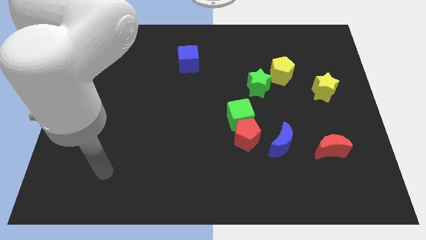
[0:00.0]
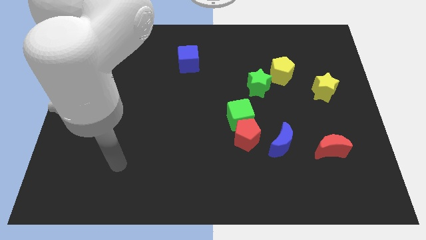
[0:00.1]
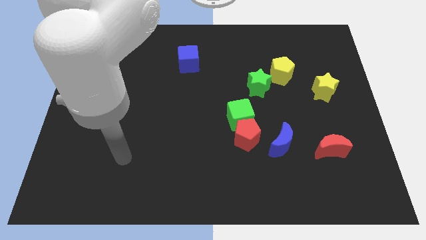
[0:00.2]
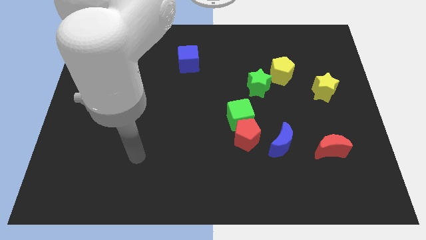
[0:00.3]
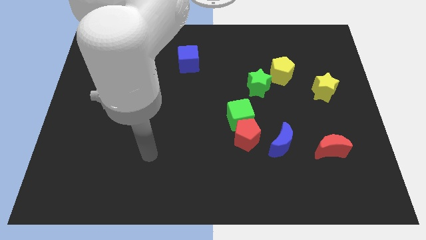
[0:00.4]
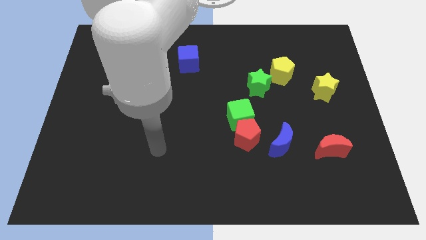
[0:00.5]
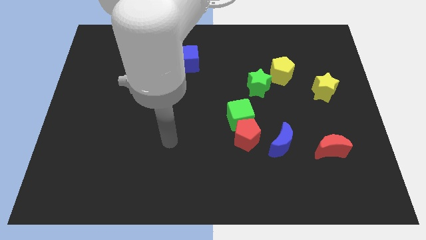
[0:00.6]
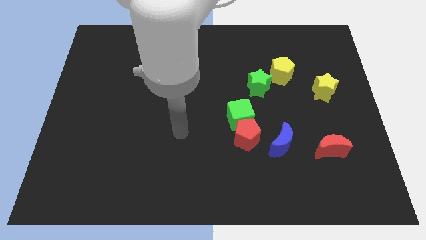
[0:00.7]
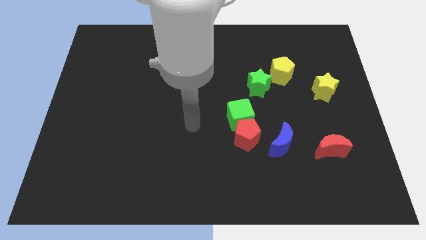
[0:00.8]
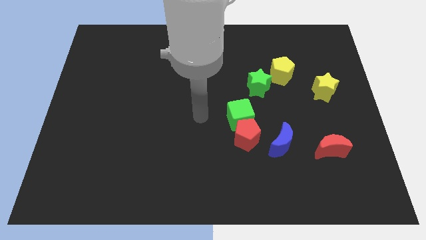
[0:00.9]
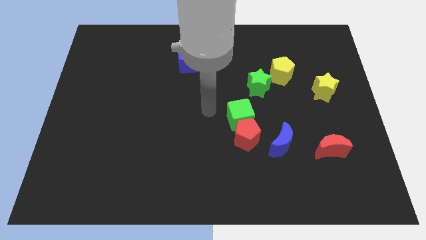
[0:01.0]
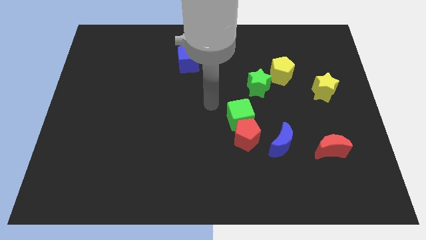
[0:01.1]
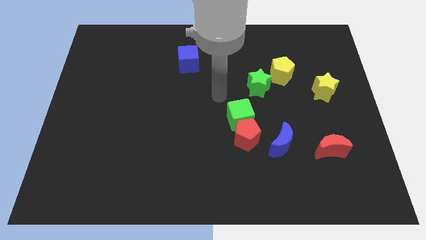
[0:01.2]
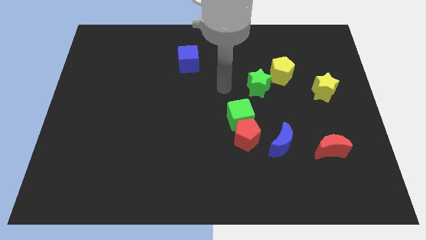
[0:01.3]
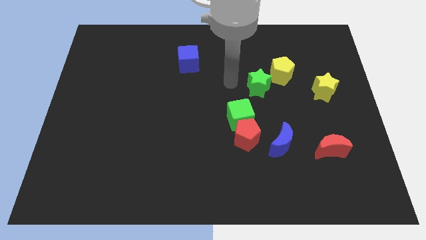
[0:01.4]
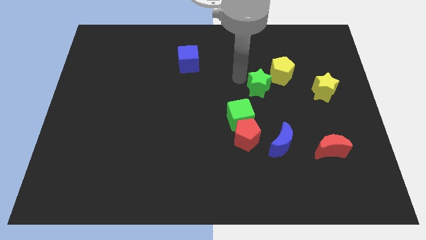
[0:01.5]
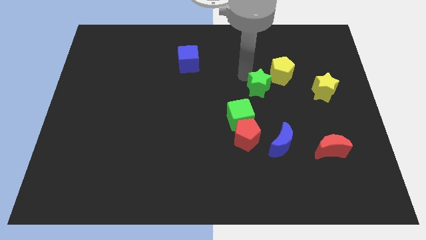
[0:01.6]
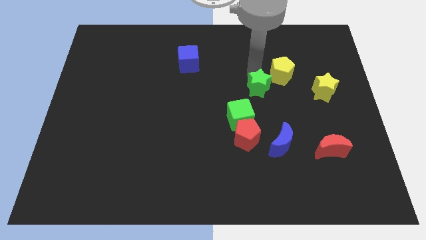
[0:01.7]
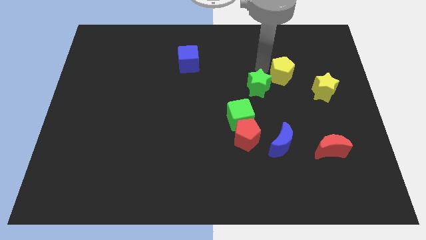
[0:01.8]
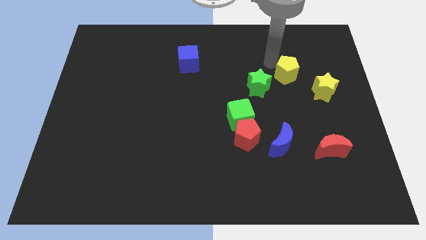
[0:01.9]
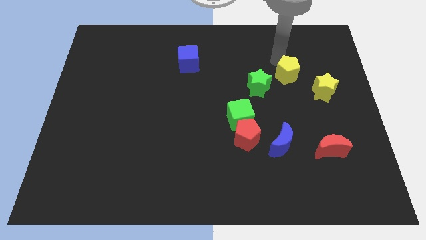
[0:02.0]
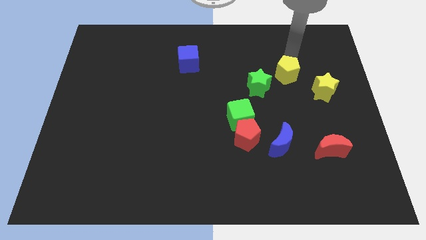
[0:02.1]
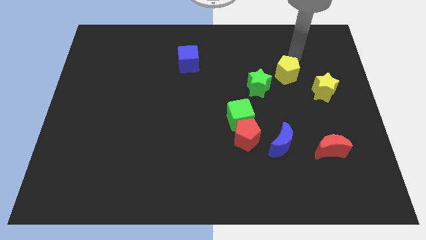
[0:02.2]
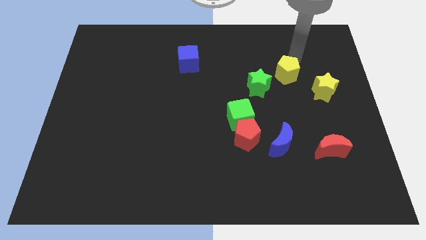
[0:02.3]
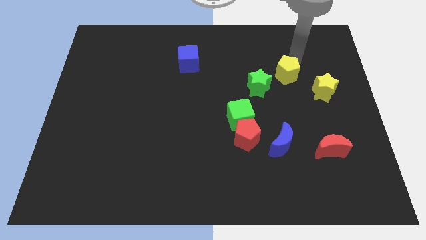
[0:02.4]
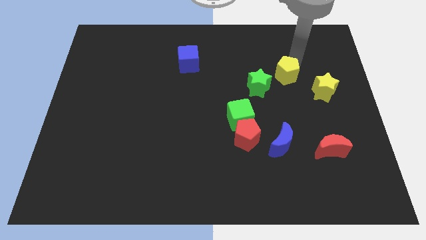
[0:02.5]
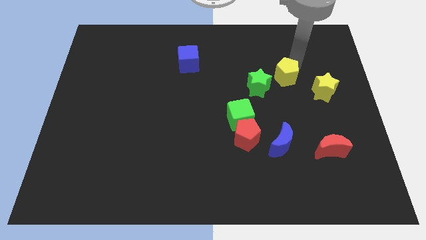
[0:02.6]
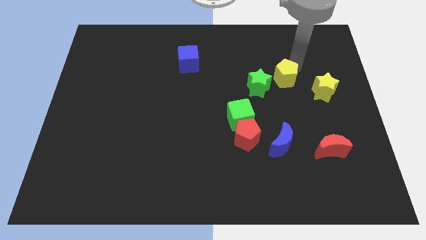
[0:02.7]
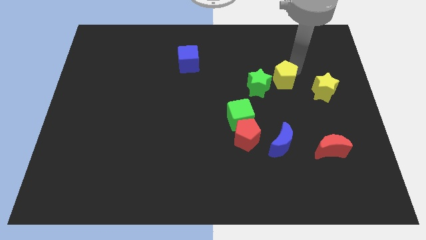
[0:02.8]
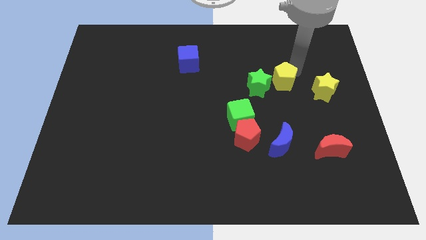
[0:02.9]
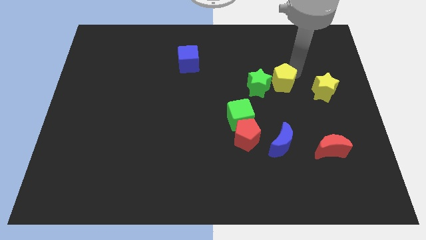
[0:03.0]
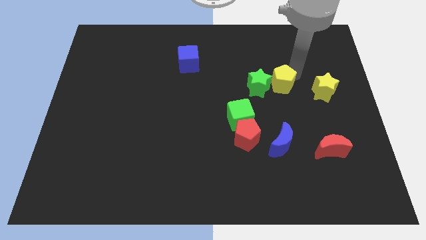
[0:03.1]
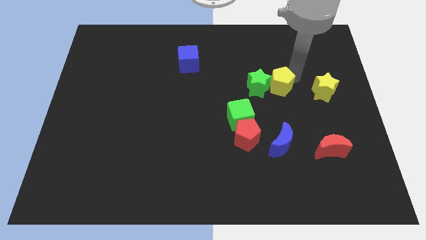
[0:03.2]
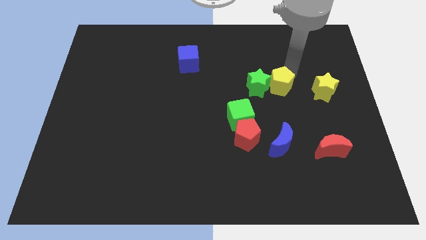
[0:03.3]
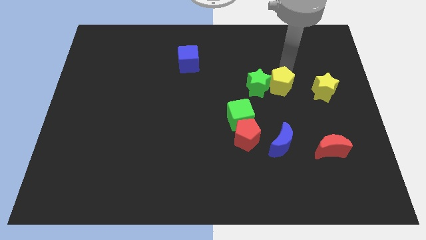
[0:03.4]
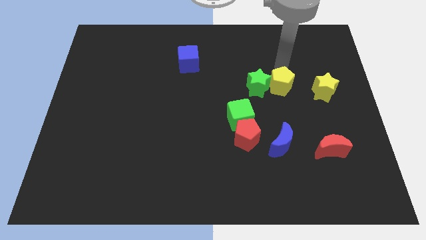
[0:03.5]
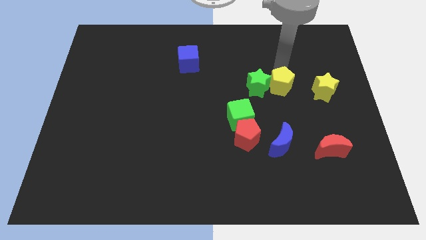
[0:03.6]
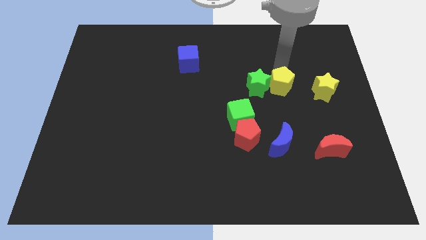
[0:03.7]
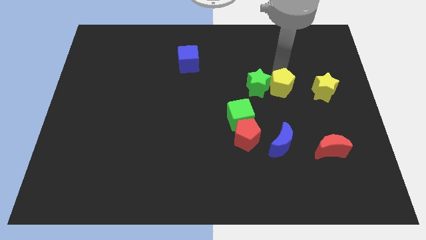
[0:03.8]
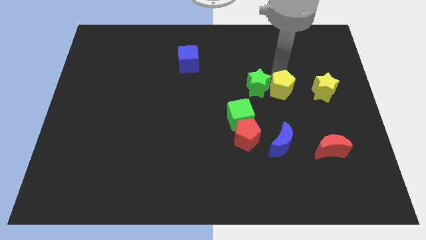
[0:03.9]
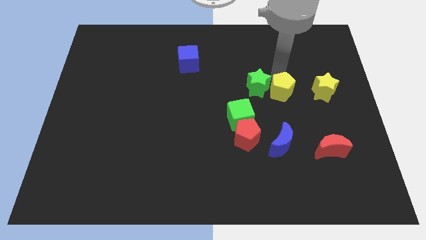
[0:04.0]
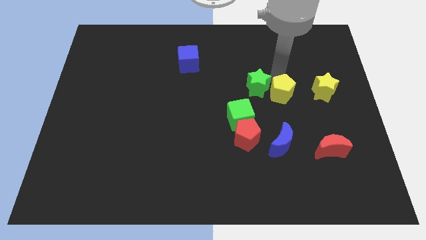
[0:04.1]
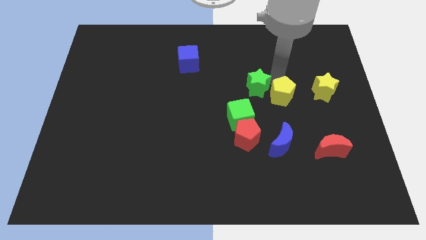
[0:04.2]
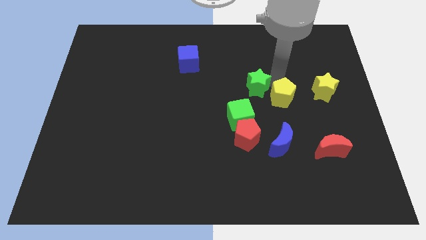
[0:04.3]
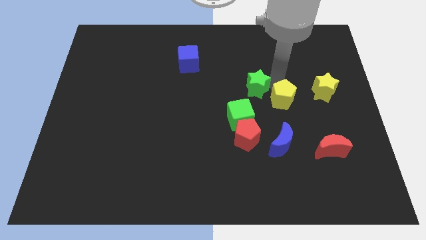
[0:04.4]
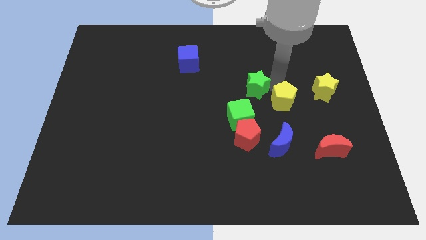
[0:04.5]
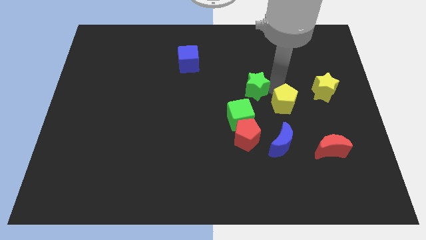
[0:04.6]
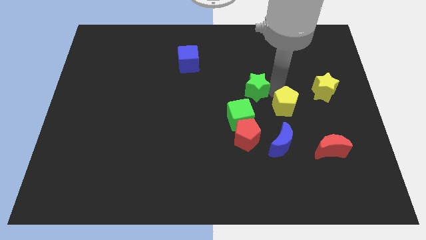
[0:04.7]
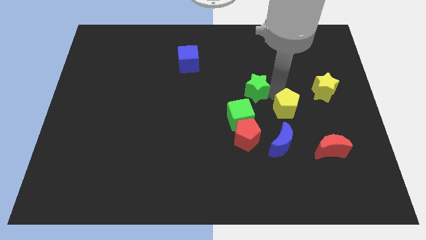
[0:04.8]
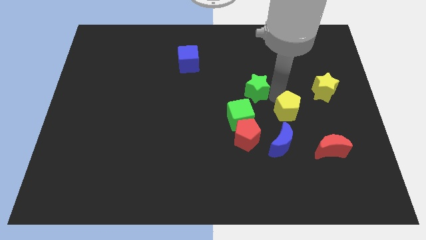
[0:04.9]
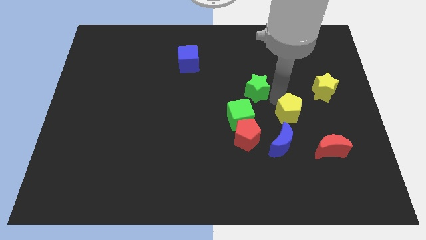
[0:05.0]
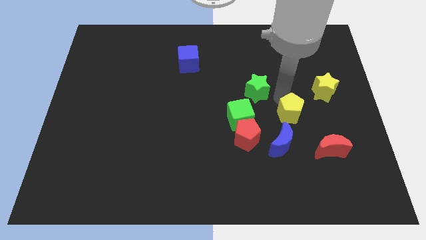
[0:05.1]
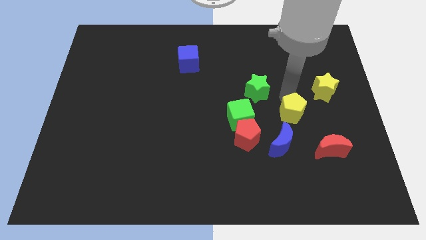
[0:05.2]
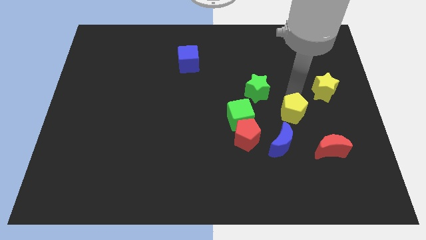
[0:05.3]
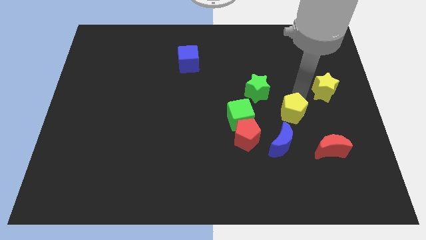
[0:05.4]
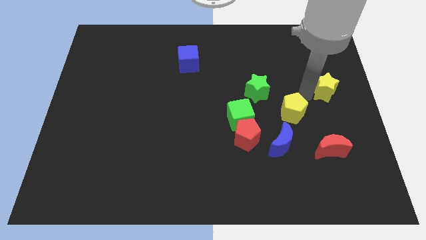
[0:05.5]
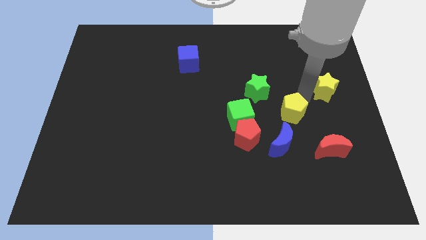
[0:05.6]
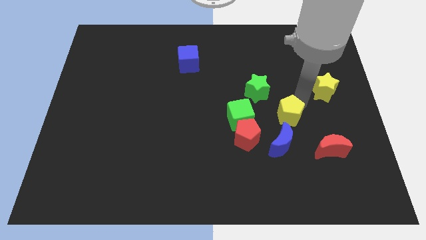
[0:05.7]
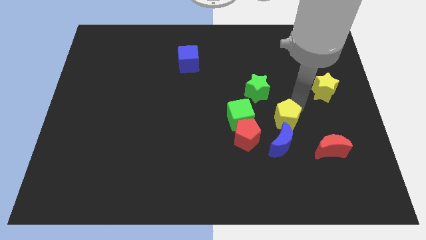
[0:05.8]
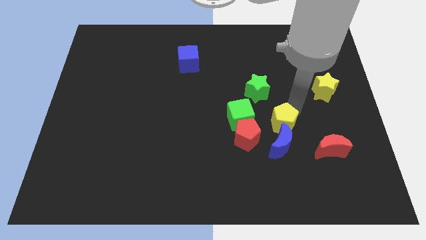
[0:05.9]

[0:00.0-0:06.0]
slide the yellow pentagon close to the blue moon

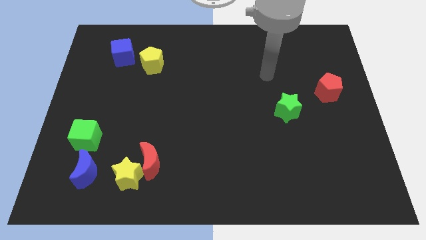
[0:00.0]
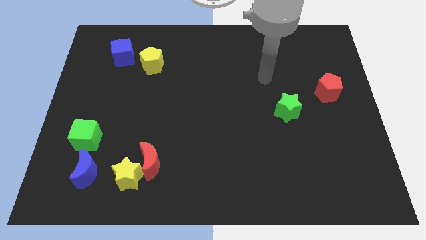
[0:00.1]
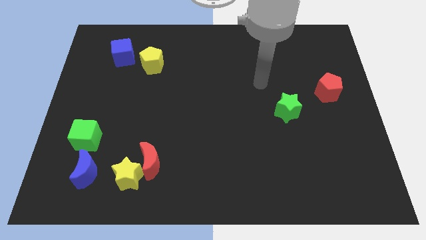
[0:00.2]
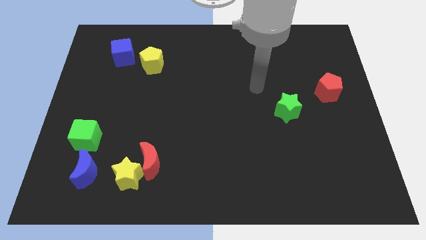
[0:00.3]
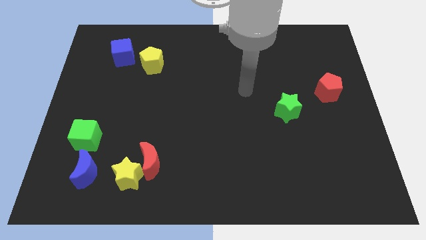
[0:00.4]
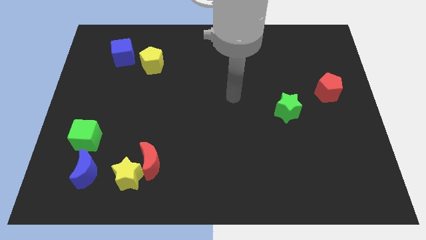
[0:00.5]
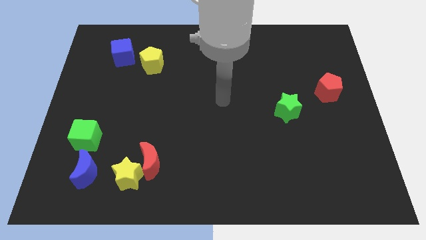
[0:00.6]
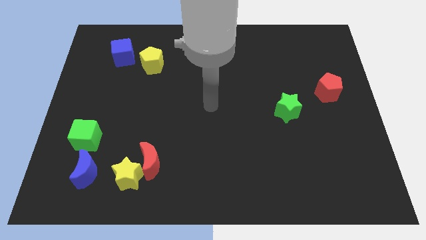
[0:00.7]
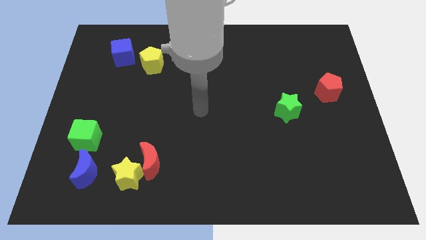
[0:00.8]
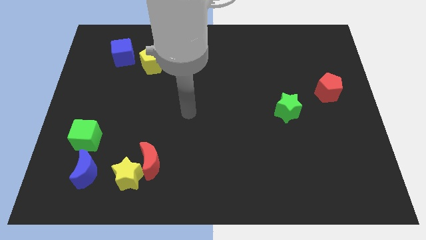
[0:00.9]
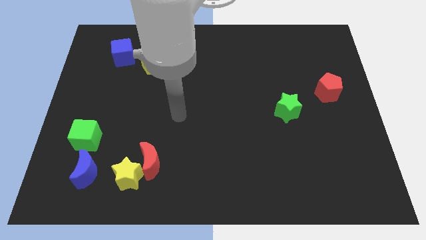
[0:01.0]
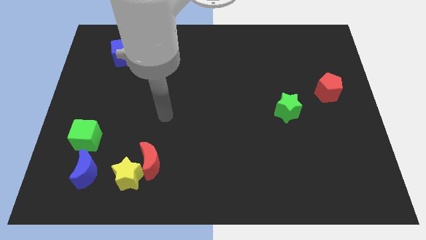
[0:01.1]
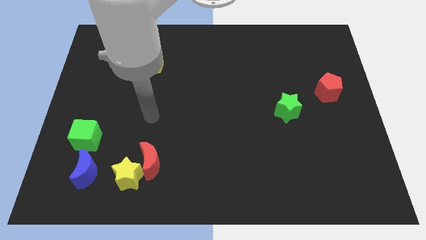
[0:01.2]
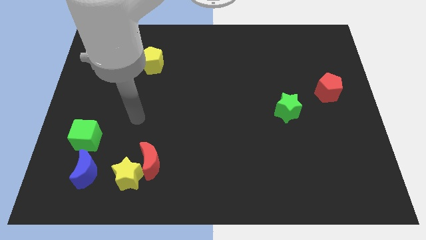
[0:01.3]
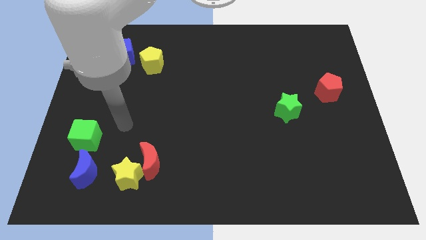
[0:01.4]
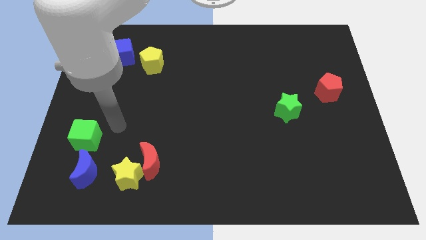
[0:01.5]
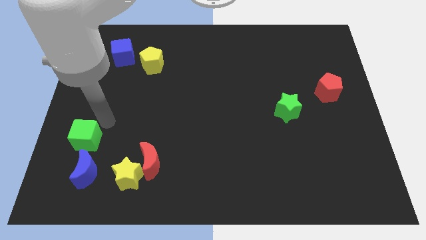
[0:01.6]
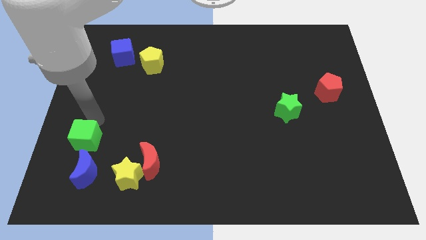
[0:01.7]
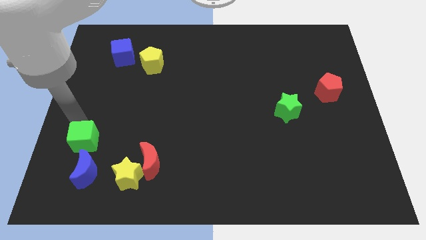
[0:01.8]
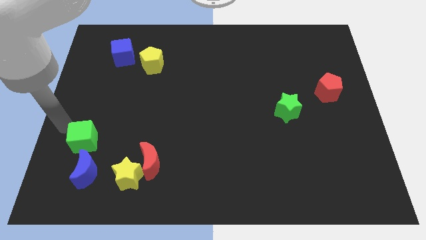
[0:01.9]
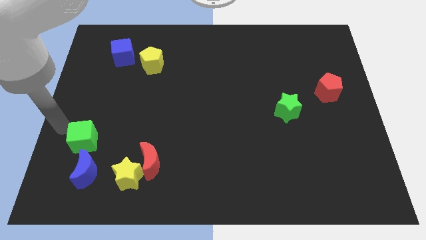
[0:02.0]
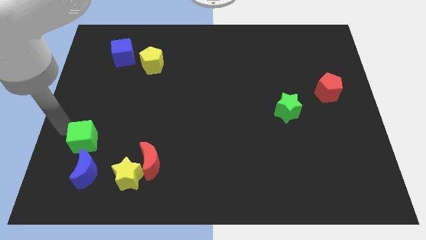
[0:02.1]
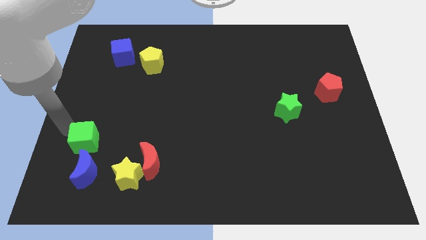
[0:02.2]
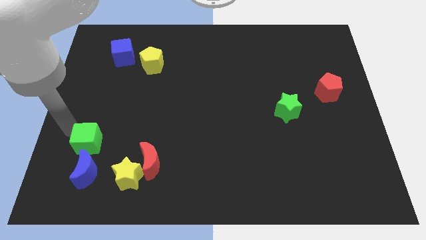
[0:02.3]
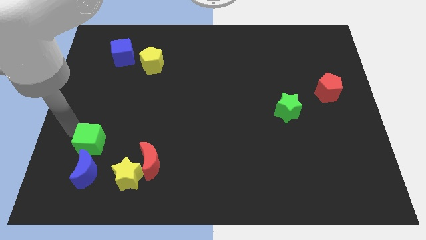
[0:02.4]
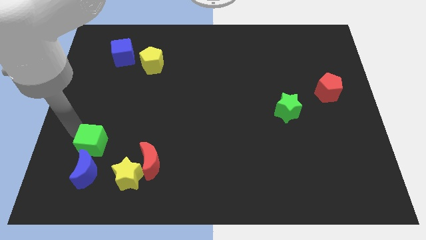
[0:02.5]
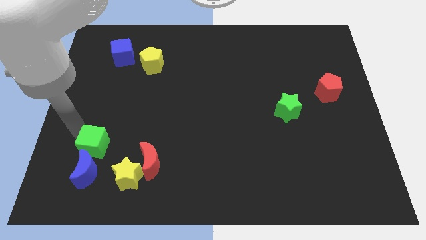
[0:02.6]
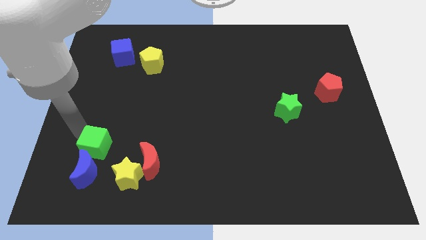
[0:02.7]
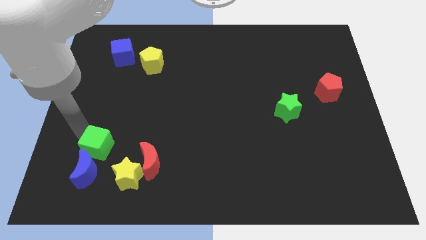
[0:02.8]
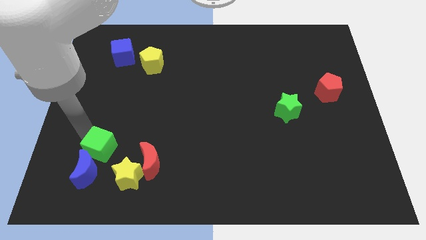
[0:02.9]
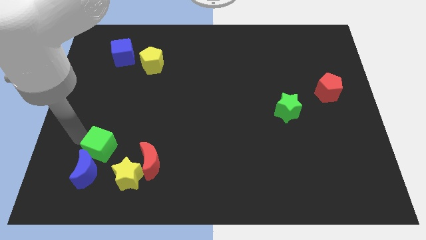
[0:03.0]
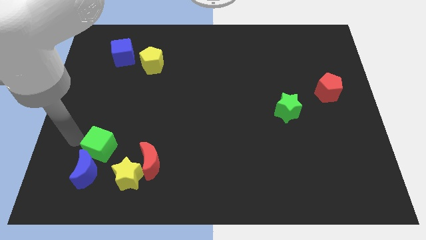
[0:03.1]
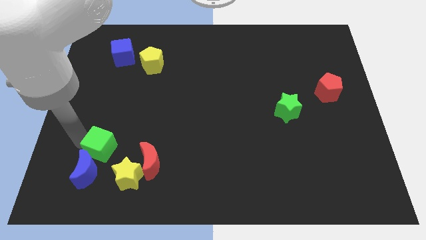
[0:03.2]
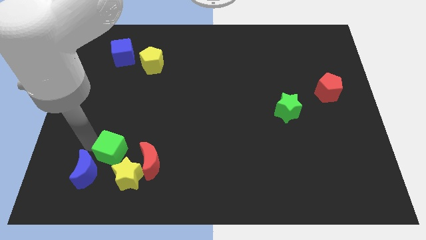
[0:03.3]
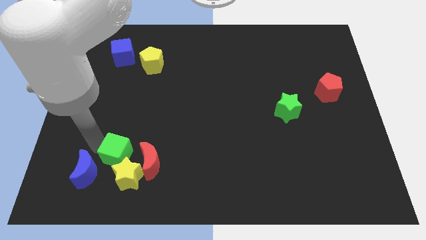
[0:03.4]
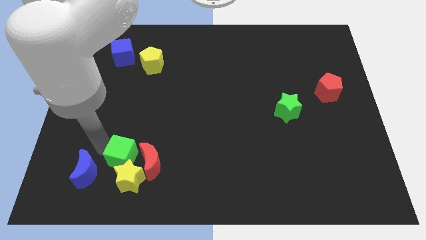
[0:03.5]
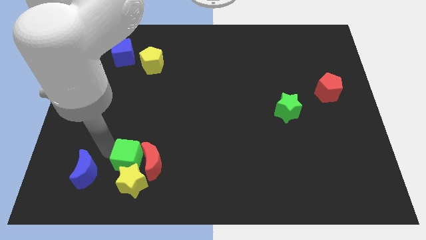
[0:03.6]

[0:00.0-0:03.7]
move the green cube close to the red moon
